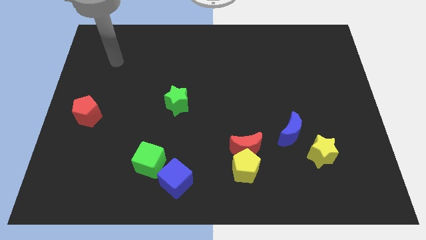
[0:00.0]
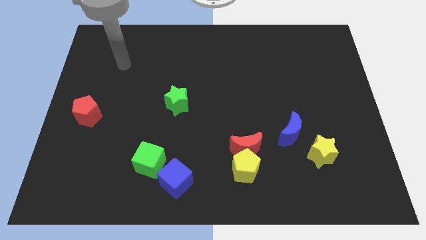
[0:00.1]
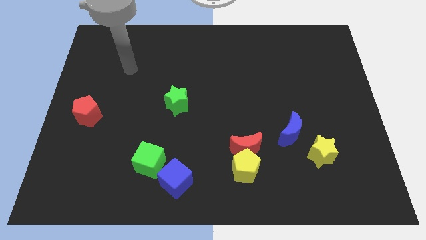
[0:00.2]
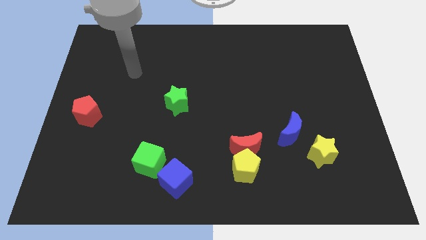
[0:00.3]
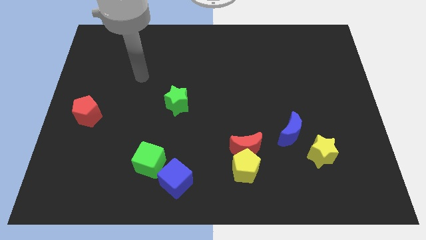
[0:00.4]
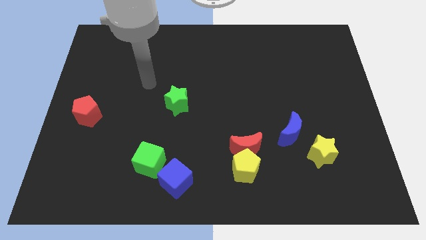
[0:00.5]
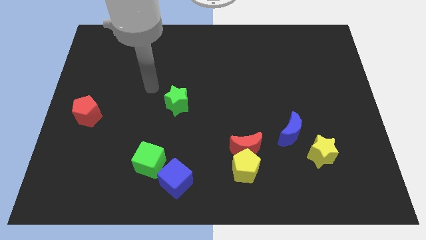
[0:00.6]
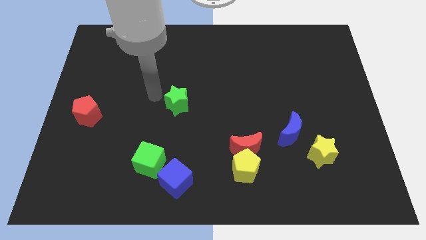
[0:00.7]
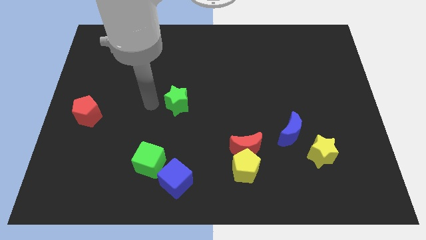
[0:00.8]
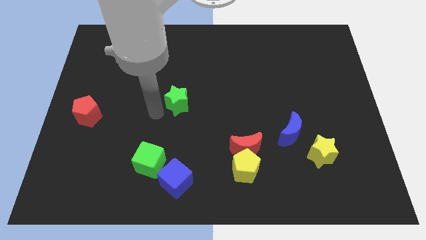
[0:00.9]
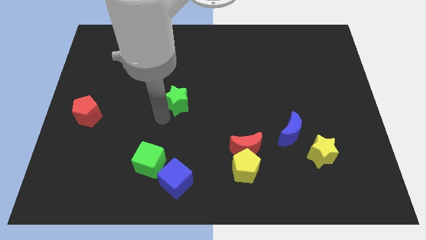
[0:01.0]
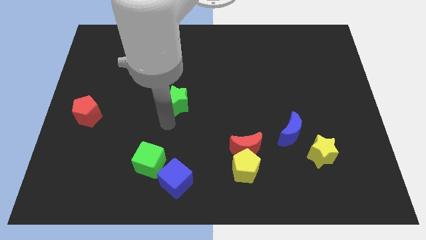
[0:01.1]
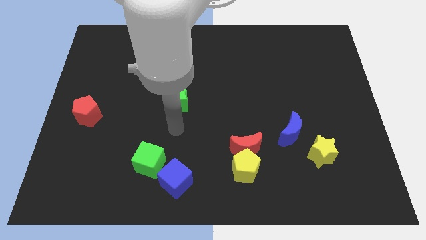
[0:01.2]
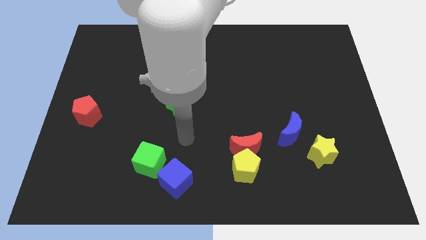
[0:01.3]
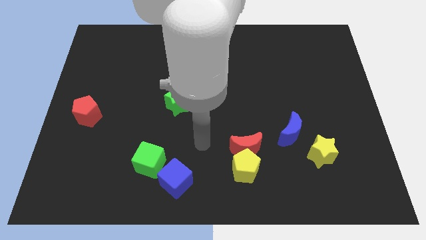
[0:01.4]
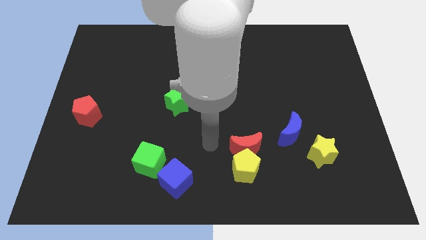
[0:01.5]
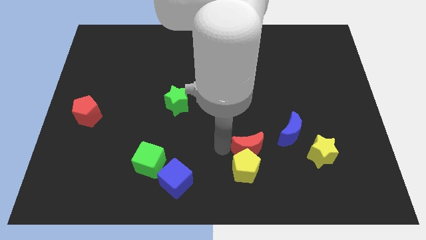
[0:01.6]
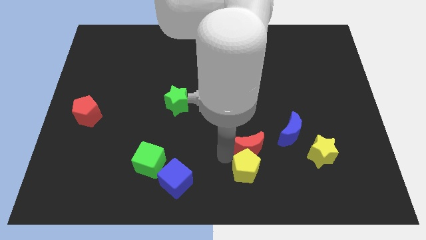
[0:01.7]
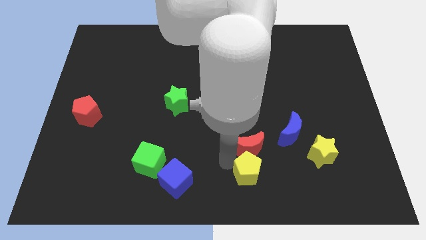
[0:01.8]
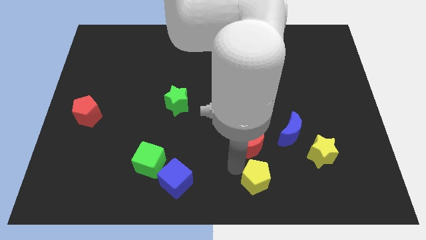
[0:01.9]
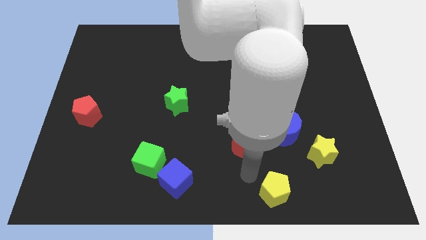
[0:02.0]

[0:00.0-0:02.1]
pull the red moon apart from the yellow pentagon

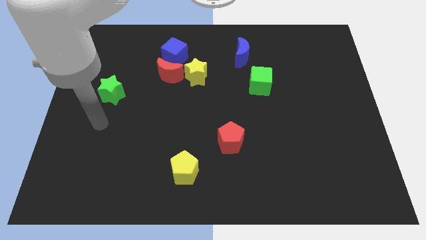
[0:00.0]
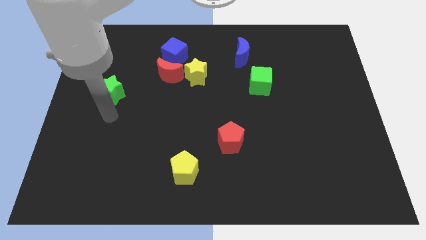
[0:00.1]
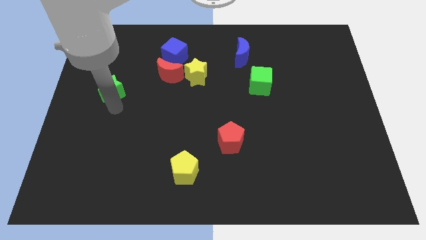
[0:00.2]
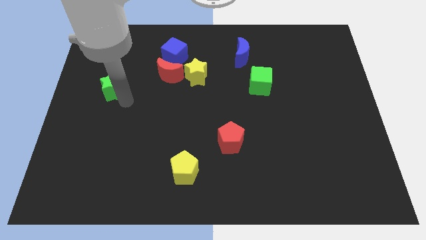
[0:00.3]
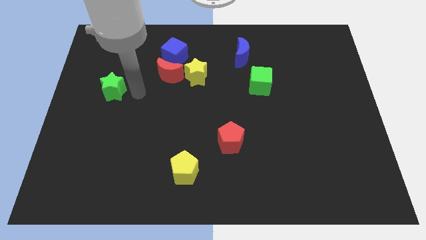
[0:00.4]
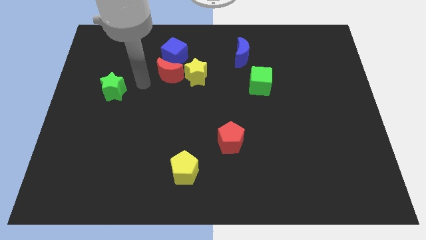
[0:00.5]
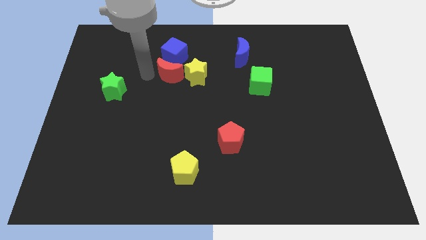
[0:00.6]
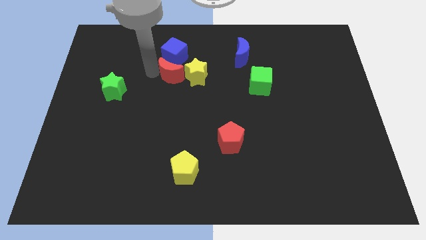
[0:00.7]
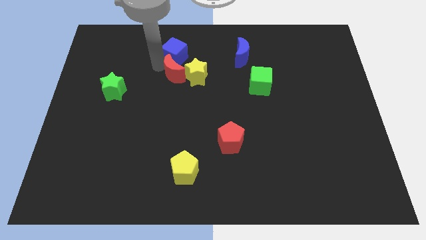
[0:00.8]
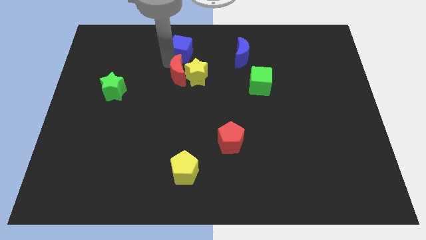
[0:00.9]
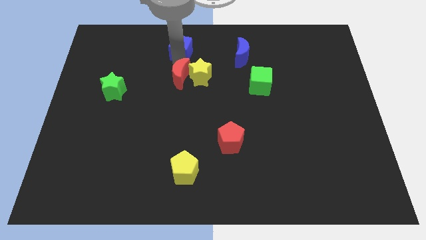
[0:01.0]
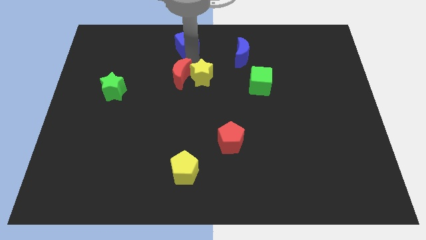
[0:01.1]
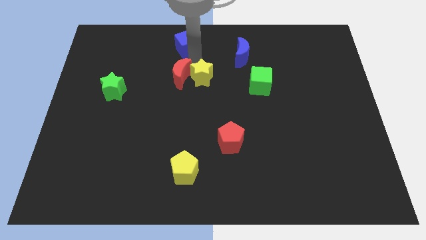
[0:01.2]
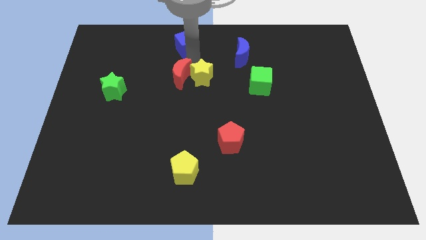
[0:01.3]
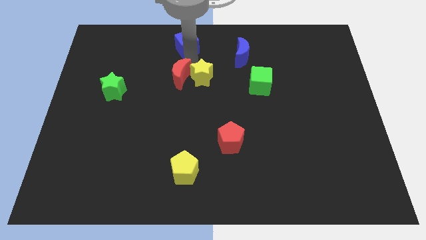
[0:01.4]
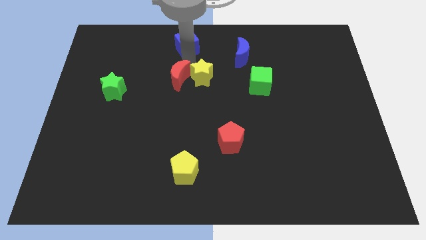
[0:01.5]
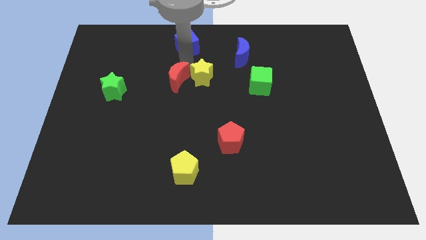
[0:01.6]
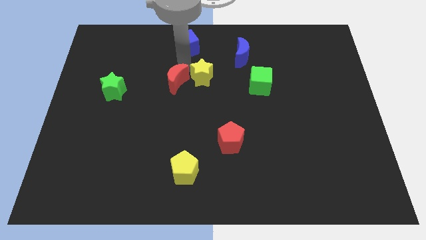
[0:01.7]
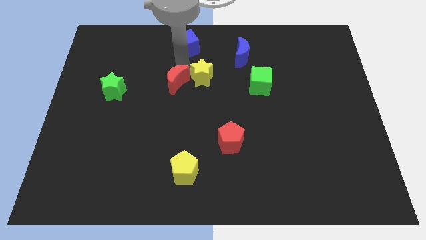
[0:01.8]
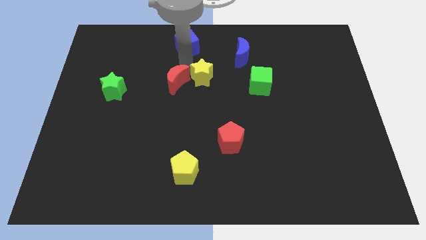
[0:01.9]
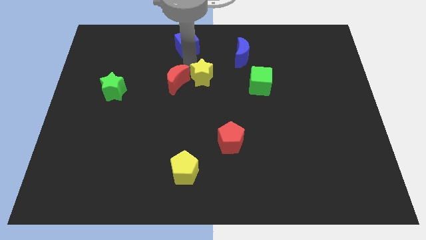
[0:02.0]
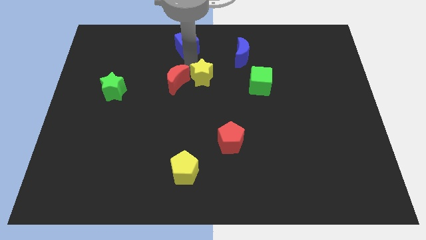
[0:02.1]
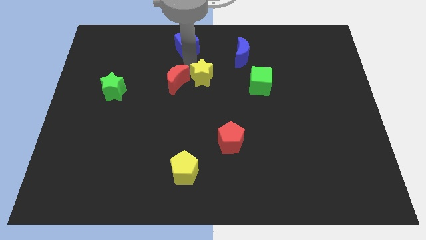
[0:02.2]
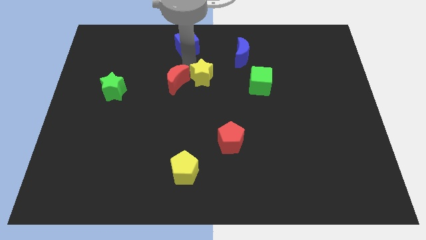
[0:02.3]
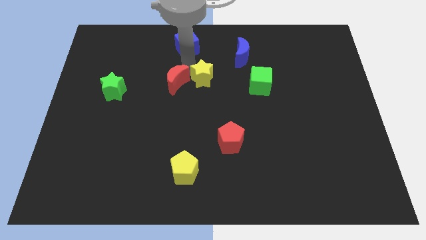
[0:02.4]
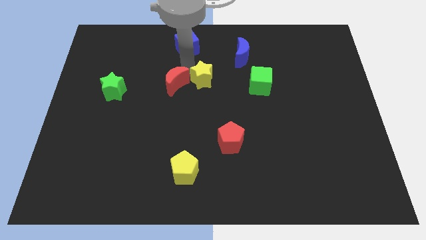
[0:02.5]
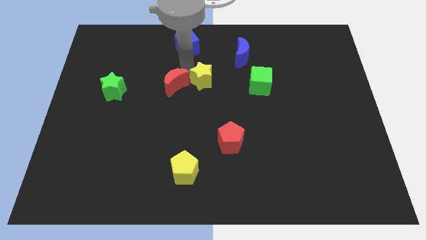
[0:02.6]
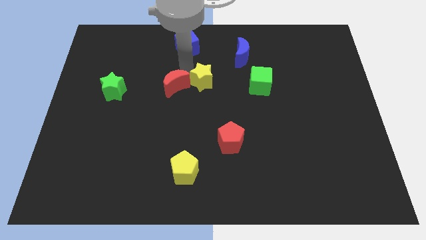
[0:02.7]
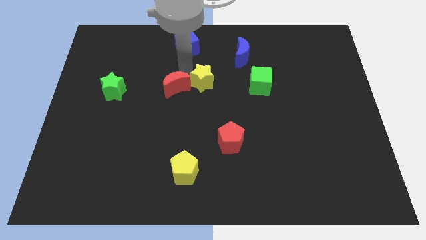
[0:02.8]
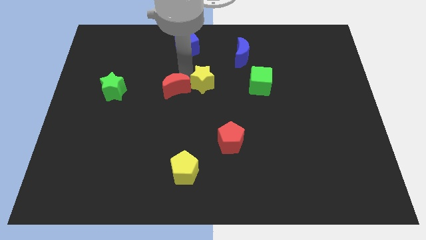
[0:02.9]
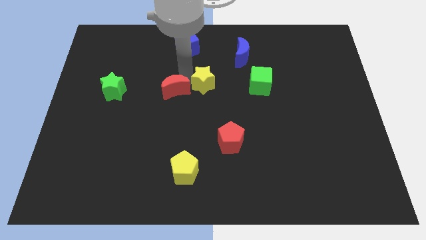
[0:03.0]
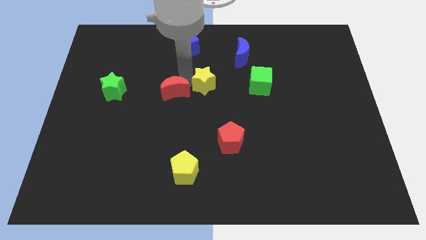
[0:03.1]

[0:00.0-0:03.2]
move the red moon away from the yellow star and blue cube

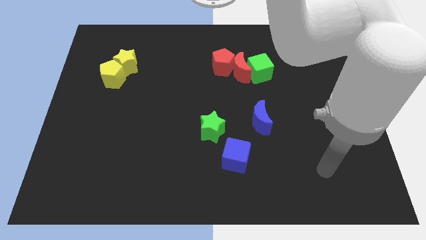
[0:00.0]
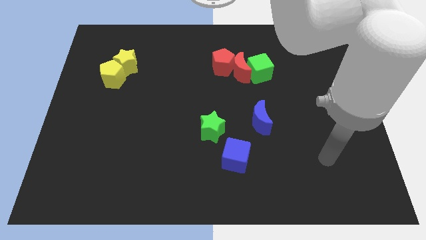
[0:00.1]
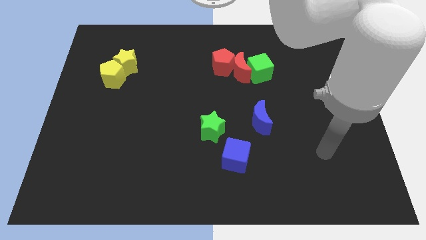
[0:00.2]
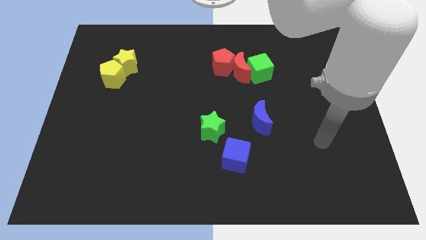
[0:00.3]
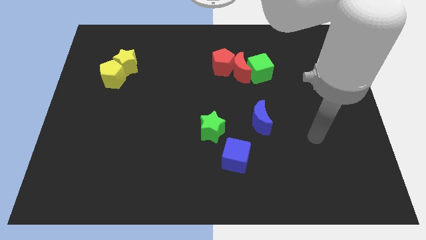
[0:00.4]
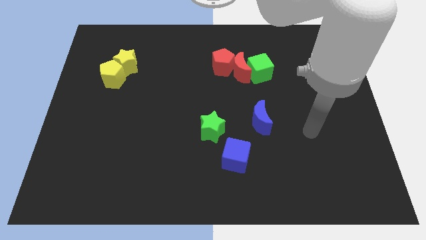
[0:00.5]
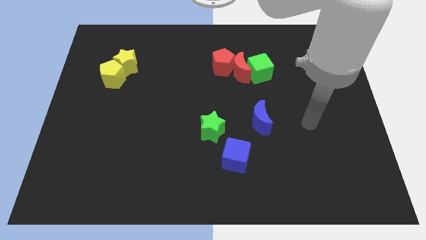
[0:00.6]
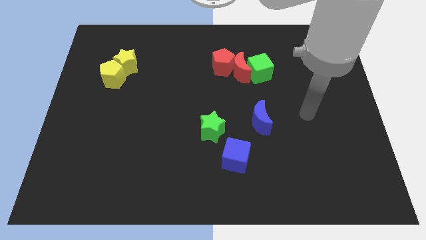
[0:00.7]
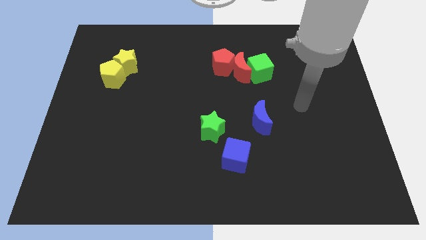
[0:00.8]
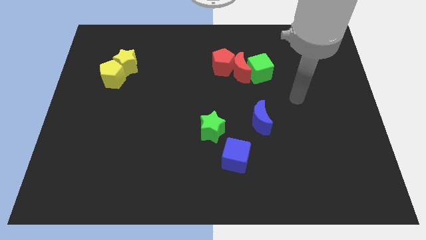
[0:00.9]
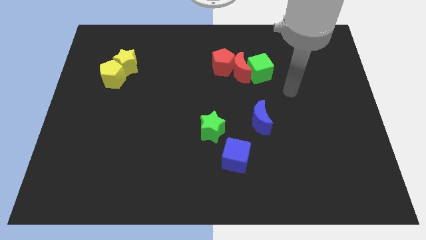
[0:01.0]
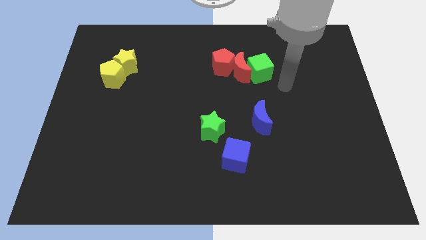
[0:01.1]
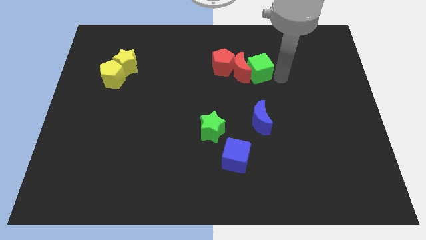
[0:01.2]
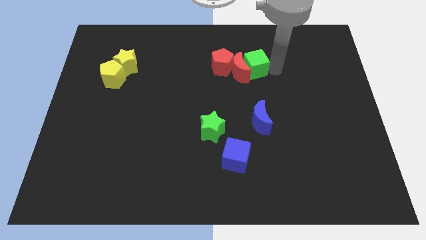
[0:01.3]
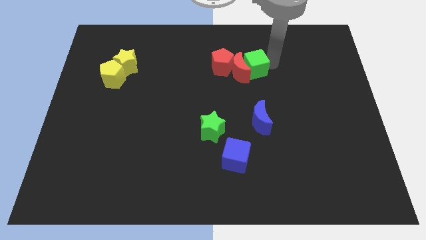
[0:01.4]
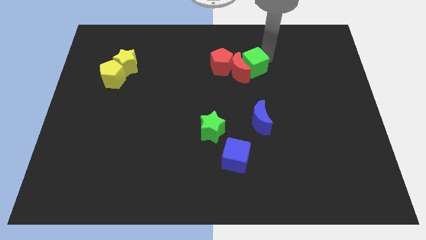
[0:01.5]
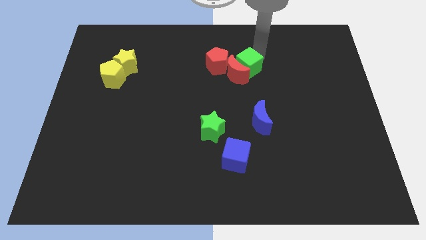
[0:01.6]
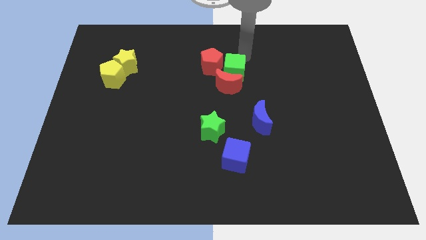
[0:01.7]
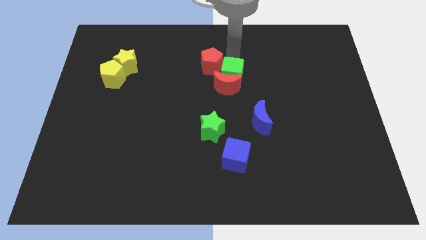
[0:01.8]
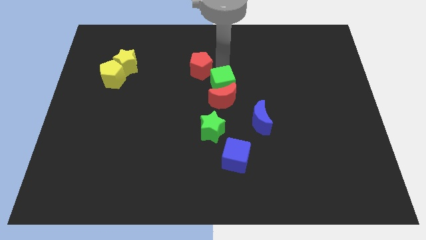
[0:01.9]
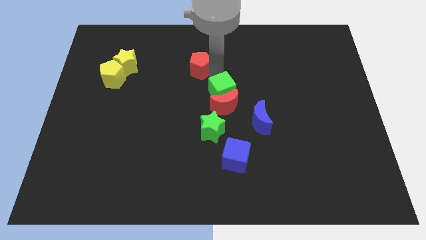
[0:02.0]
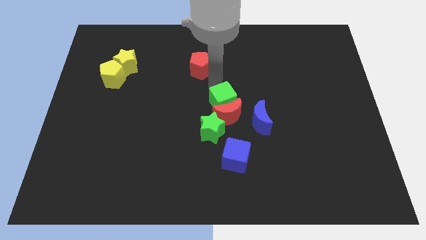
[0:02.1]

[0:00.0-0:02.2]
move the red moon away from the red pentagon and green cube

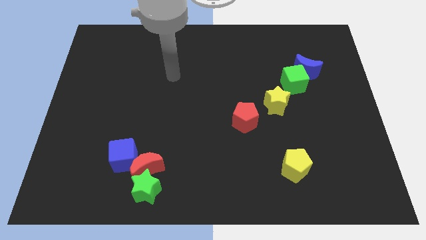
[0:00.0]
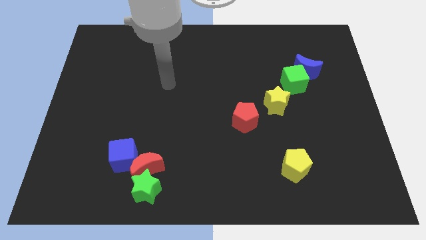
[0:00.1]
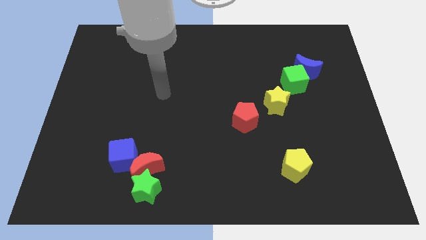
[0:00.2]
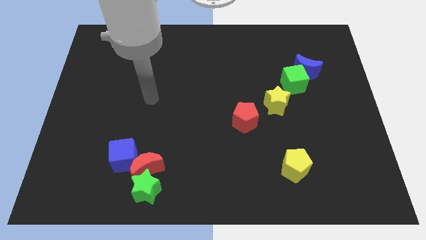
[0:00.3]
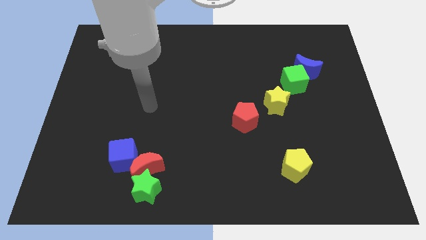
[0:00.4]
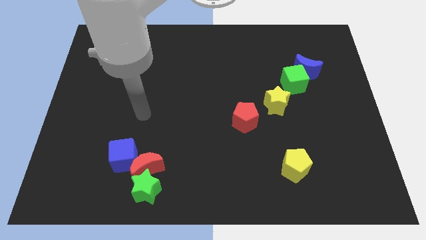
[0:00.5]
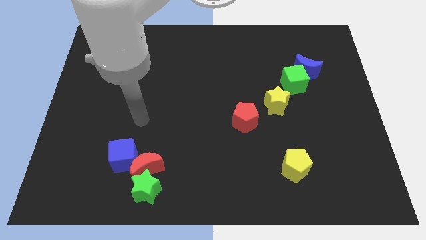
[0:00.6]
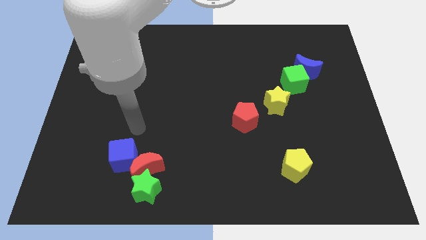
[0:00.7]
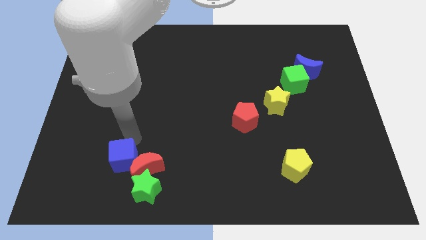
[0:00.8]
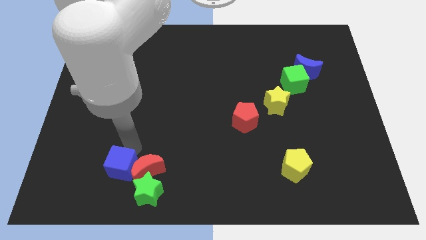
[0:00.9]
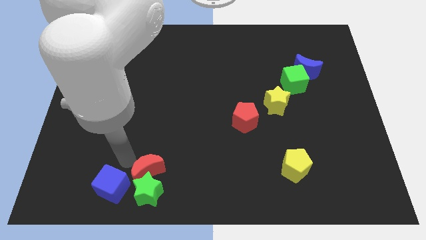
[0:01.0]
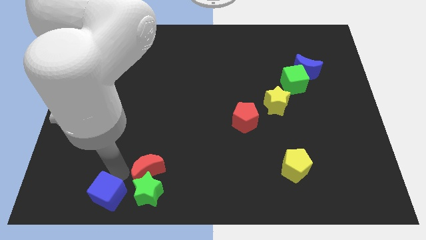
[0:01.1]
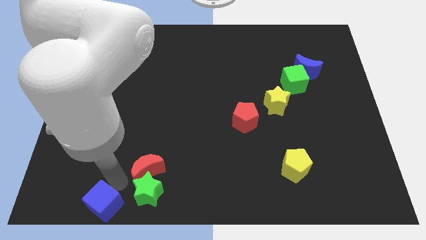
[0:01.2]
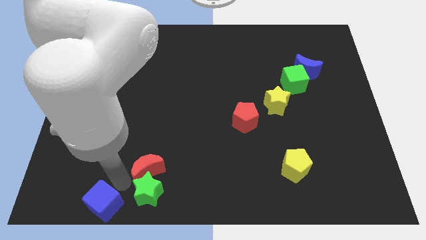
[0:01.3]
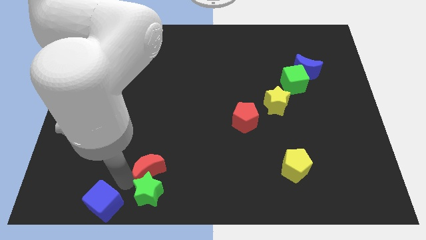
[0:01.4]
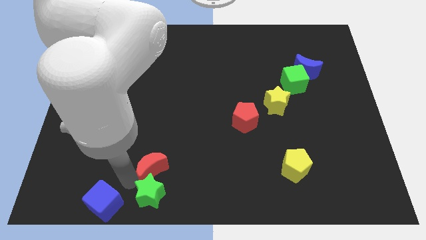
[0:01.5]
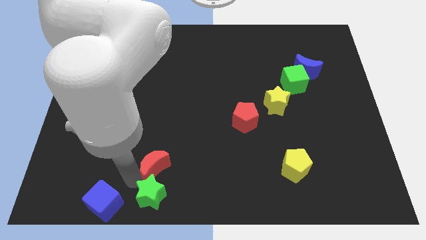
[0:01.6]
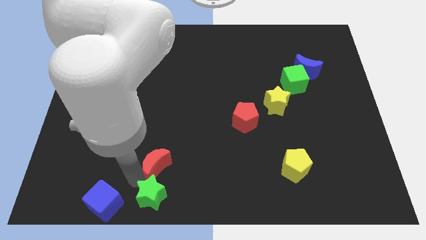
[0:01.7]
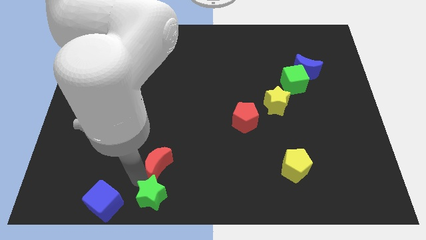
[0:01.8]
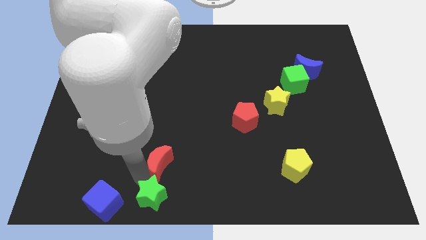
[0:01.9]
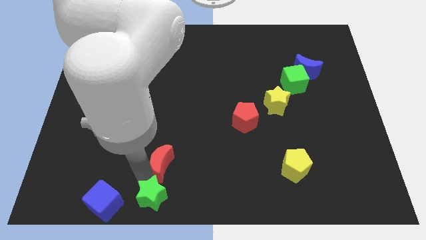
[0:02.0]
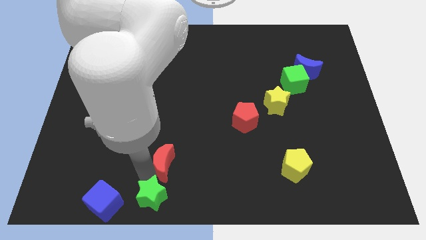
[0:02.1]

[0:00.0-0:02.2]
separate the red moon from the green star and blue cube
